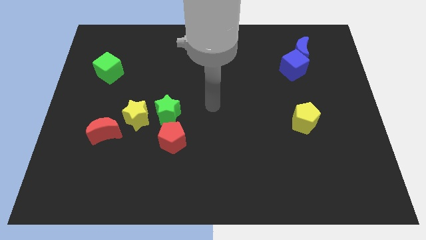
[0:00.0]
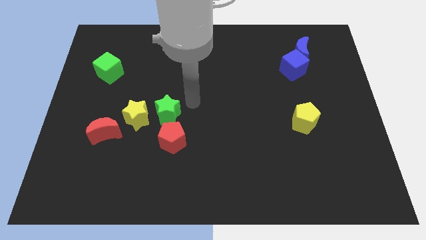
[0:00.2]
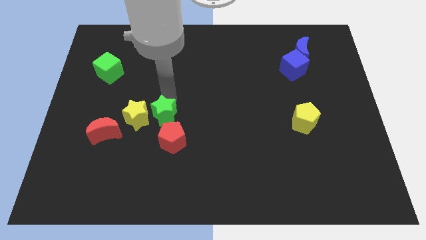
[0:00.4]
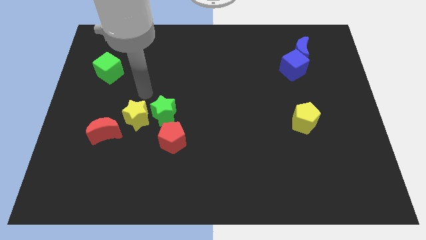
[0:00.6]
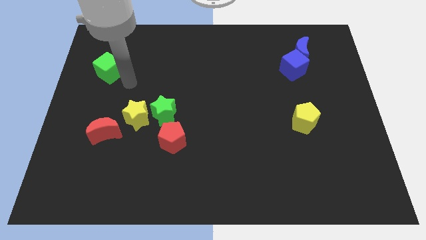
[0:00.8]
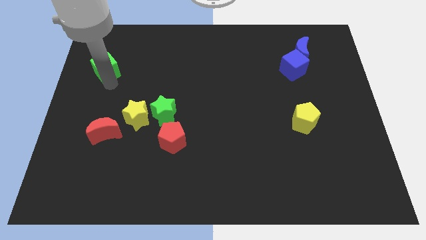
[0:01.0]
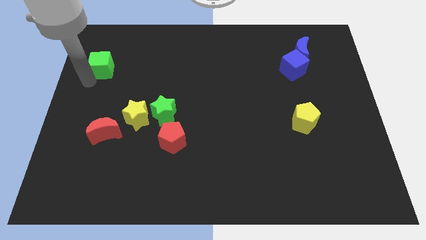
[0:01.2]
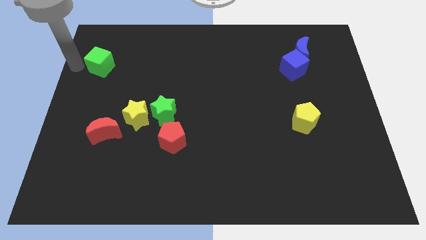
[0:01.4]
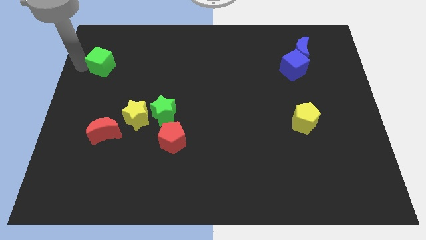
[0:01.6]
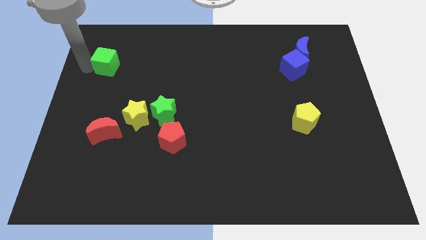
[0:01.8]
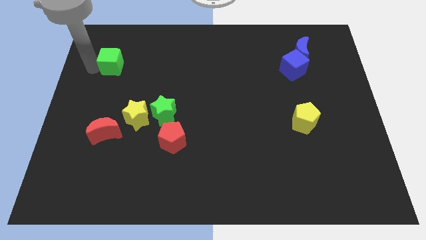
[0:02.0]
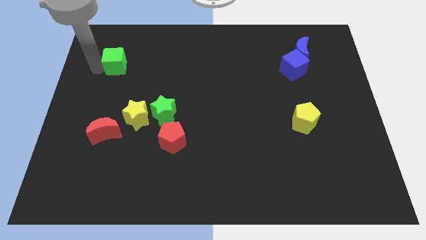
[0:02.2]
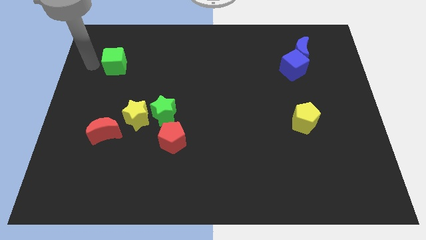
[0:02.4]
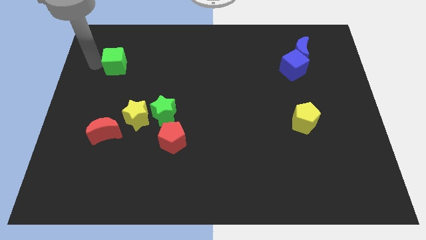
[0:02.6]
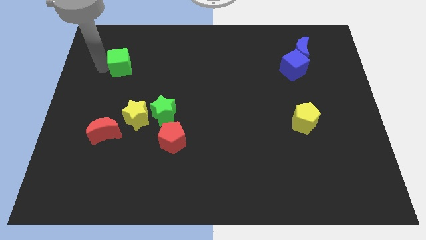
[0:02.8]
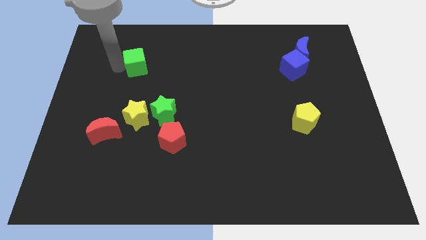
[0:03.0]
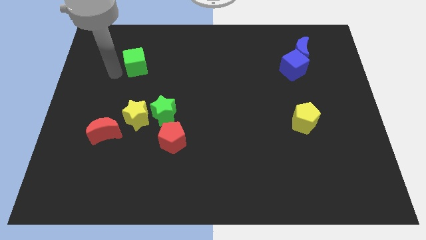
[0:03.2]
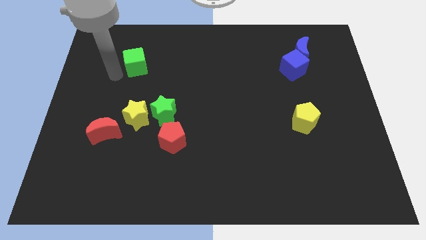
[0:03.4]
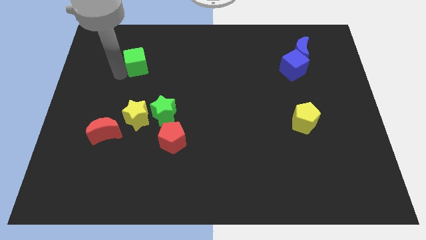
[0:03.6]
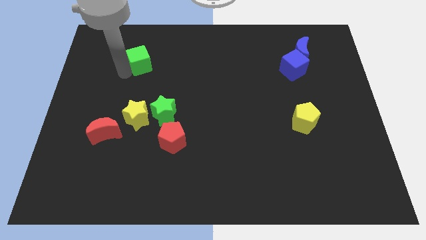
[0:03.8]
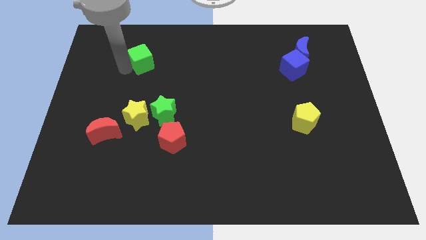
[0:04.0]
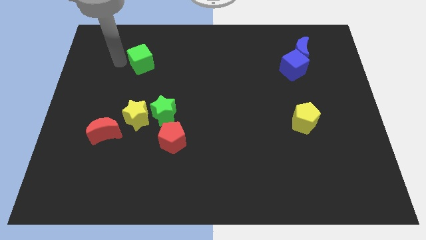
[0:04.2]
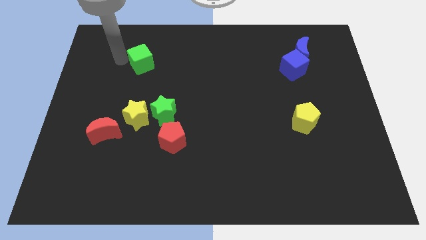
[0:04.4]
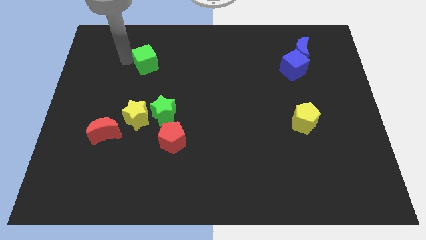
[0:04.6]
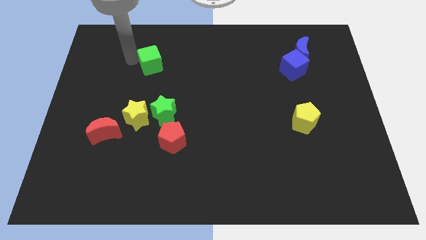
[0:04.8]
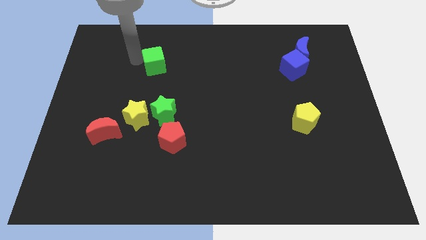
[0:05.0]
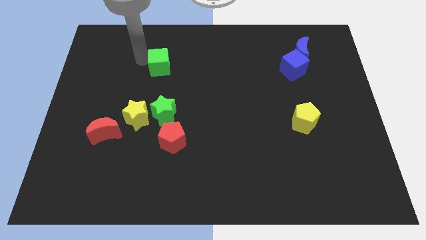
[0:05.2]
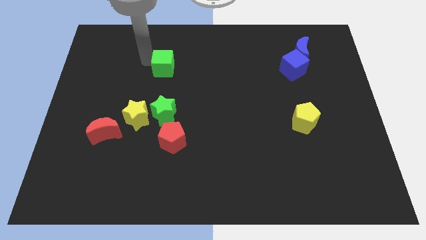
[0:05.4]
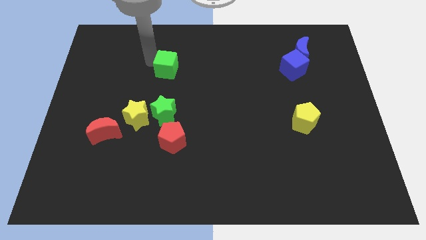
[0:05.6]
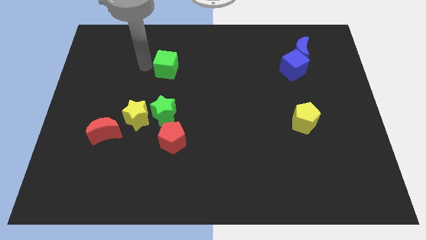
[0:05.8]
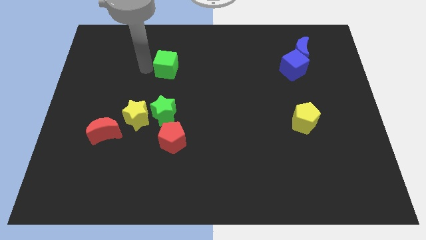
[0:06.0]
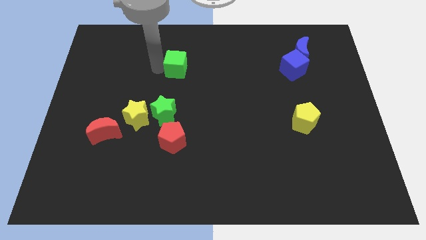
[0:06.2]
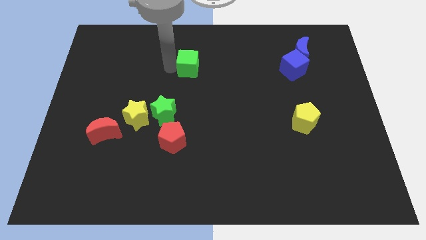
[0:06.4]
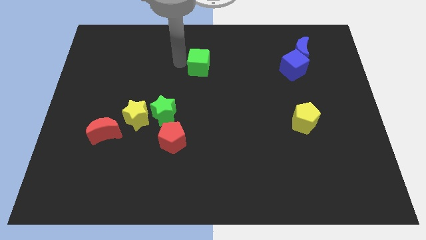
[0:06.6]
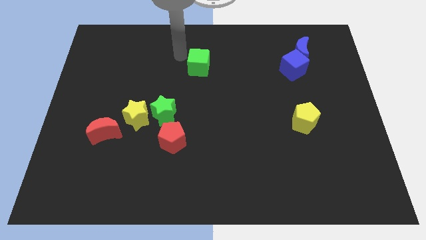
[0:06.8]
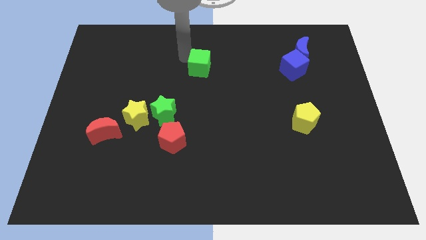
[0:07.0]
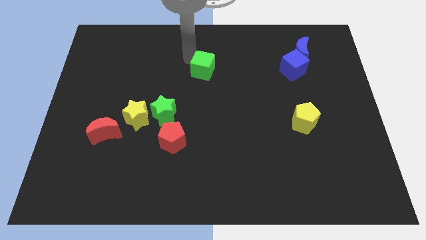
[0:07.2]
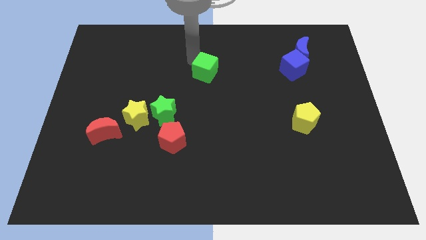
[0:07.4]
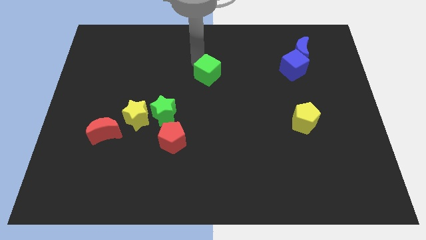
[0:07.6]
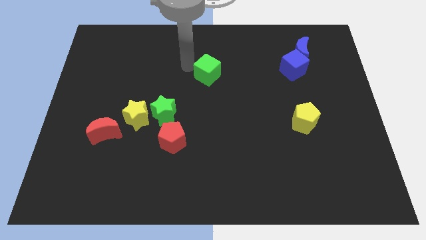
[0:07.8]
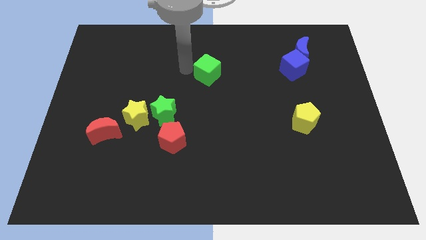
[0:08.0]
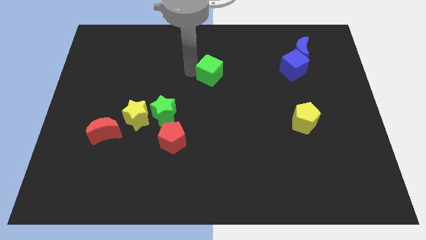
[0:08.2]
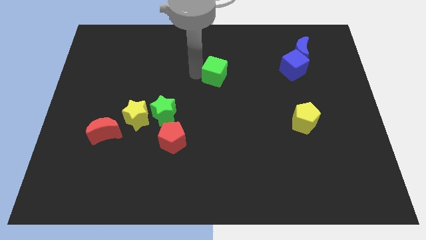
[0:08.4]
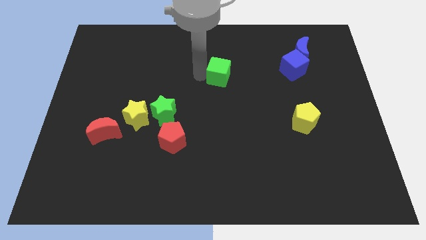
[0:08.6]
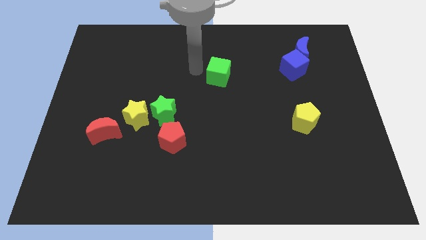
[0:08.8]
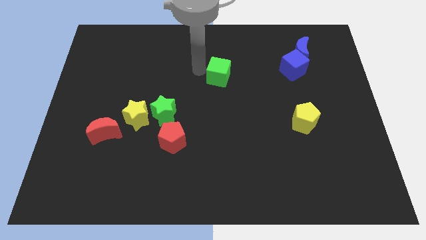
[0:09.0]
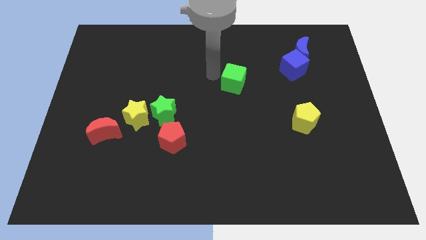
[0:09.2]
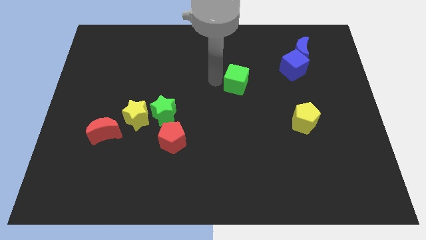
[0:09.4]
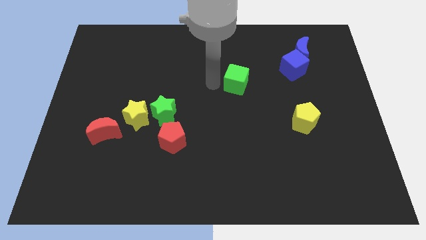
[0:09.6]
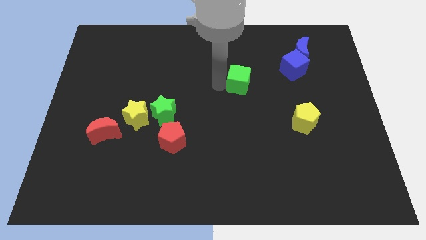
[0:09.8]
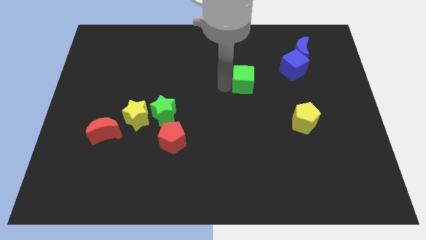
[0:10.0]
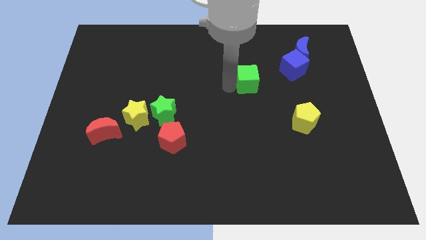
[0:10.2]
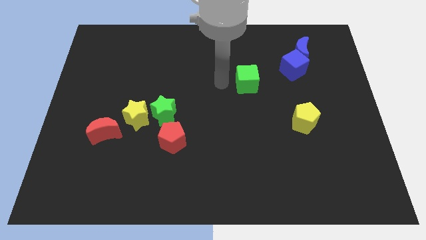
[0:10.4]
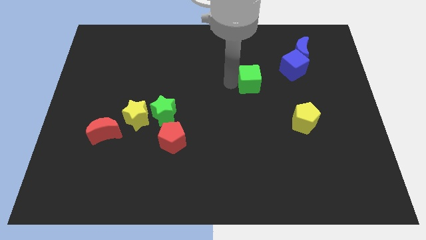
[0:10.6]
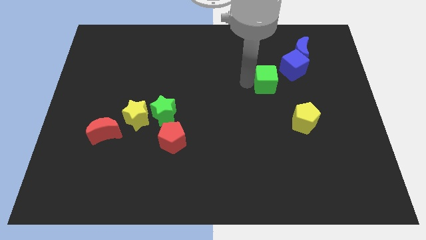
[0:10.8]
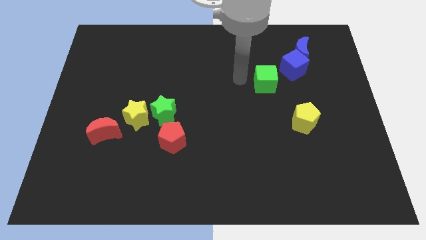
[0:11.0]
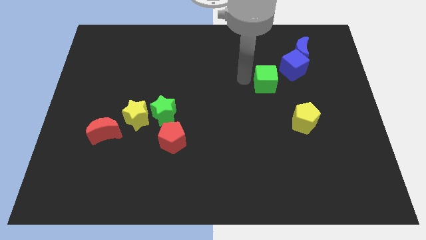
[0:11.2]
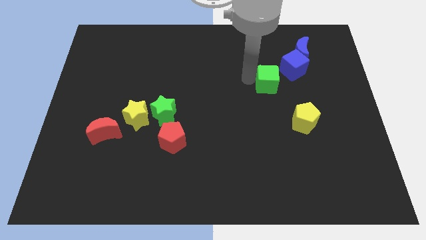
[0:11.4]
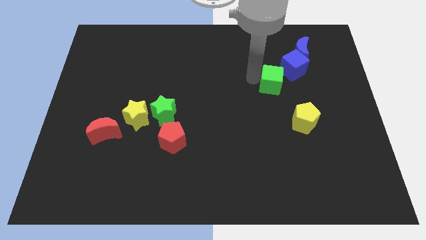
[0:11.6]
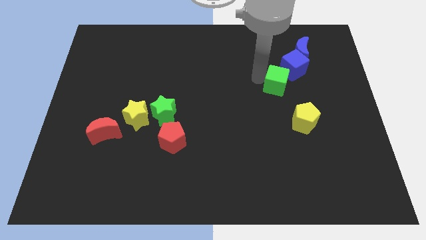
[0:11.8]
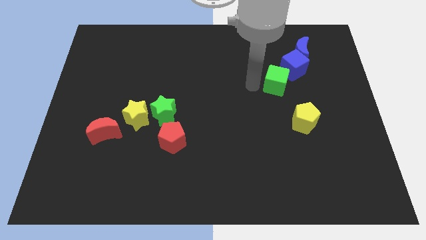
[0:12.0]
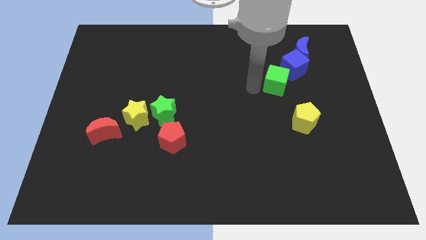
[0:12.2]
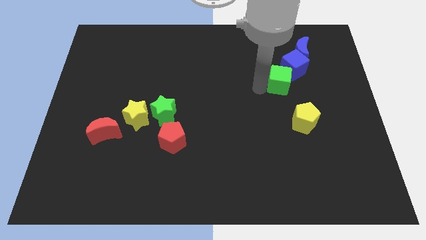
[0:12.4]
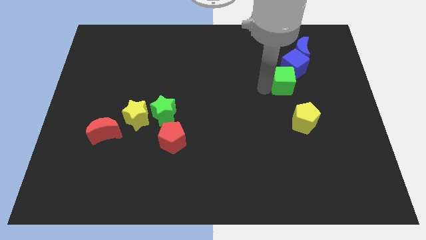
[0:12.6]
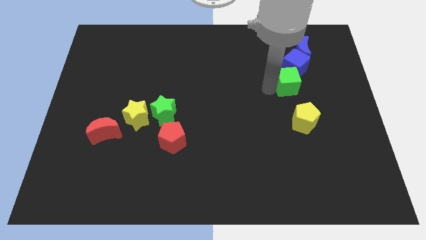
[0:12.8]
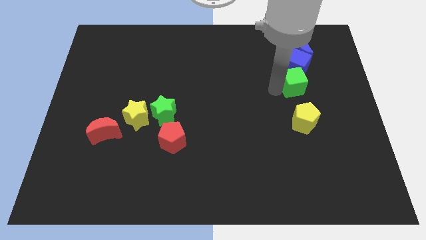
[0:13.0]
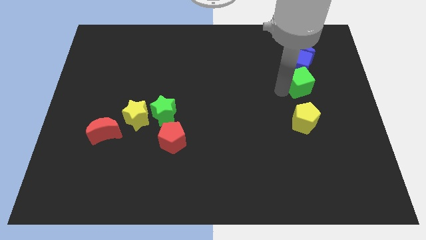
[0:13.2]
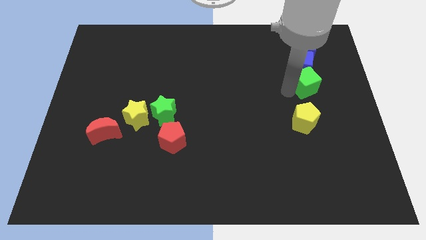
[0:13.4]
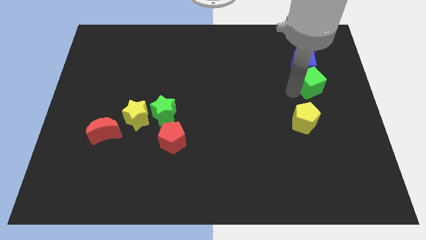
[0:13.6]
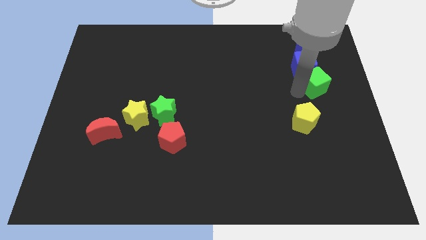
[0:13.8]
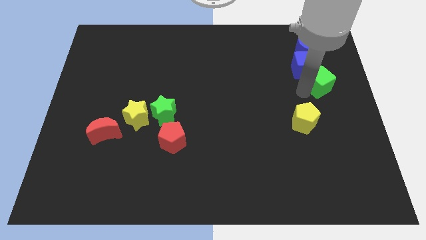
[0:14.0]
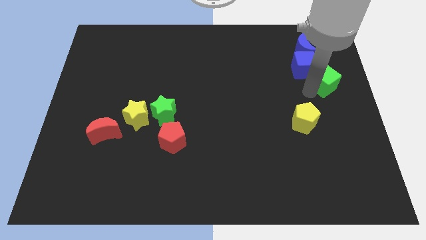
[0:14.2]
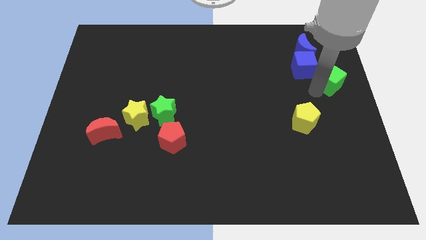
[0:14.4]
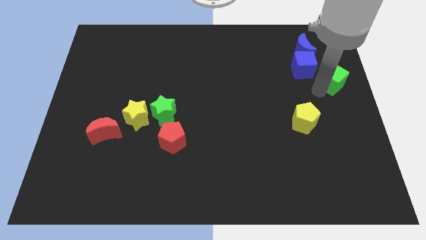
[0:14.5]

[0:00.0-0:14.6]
slide the green cube to the bottom right side of the blue moon
